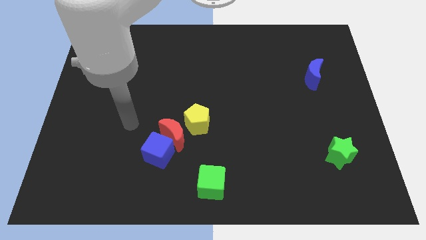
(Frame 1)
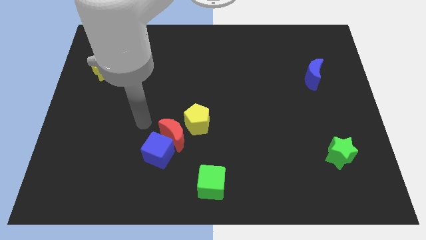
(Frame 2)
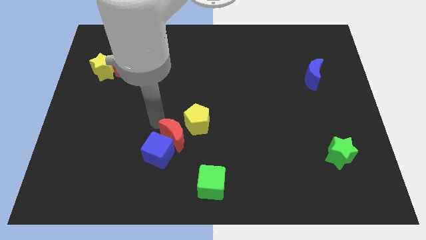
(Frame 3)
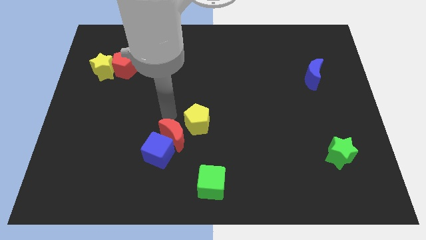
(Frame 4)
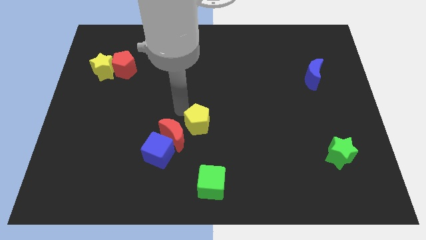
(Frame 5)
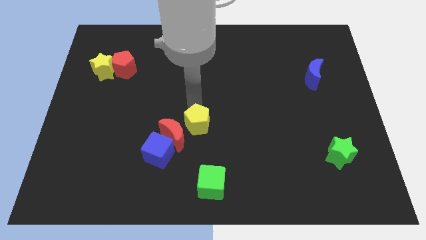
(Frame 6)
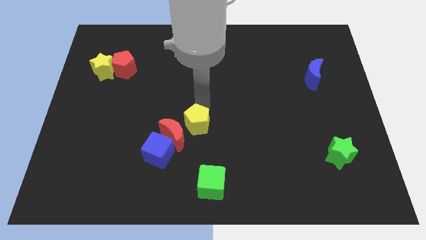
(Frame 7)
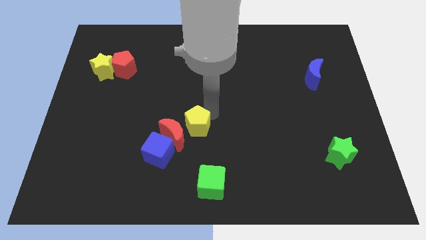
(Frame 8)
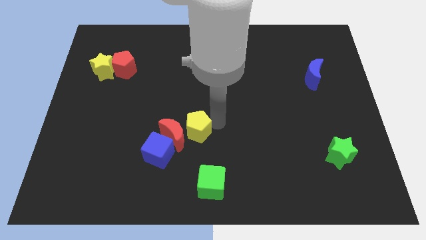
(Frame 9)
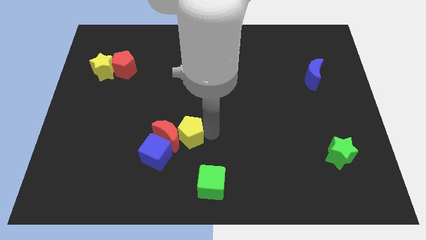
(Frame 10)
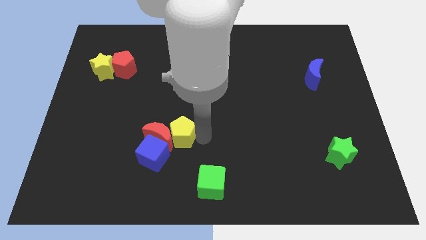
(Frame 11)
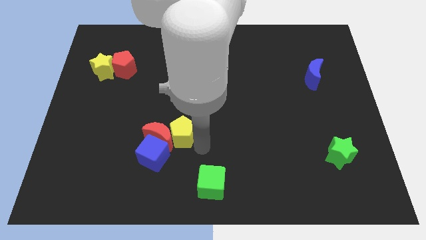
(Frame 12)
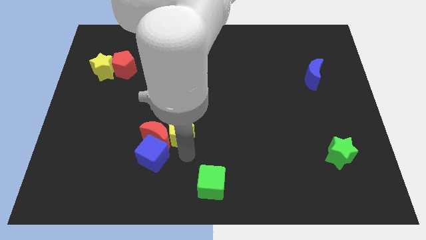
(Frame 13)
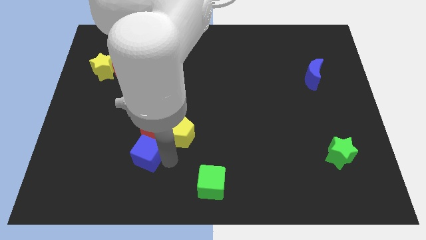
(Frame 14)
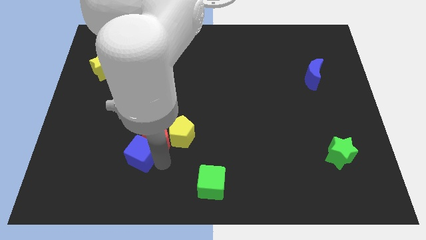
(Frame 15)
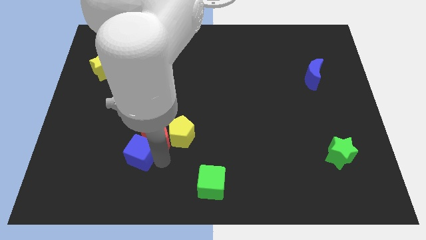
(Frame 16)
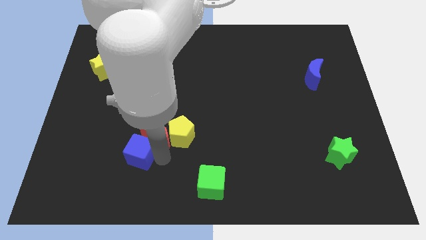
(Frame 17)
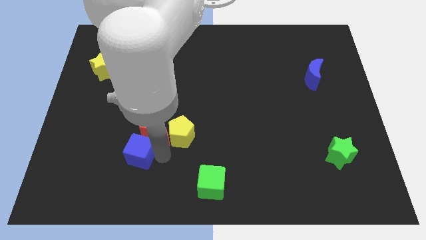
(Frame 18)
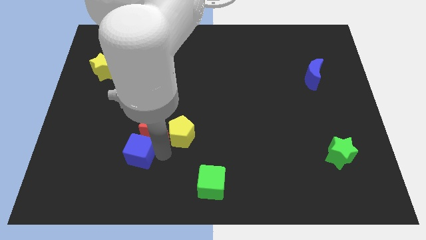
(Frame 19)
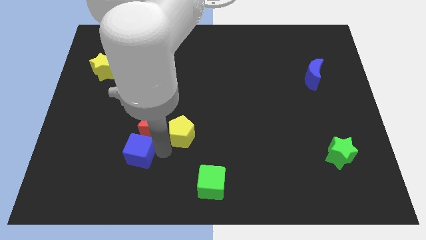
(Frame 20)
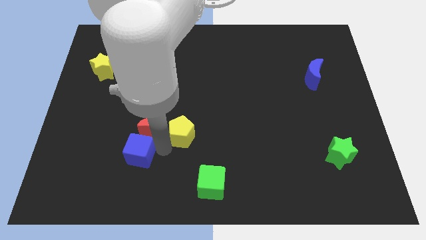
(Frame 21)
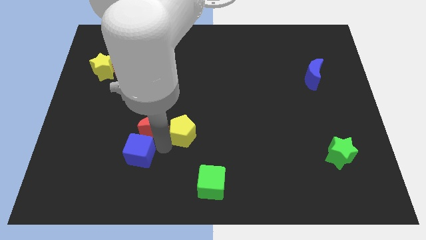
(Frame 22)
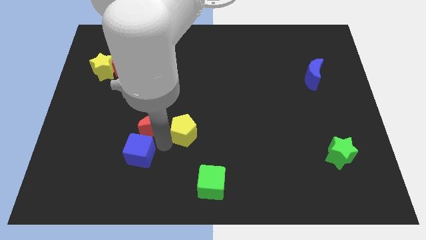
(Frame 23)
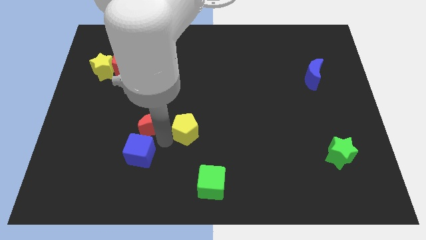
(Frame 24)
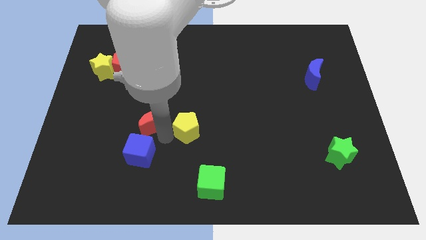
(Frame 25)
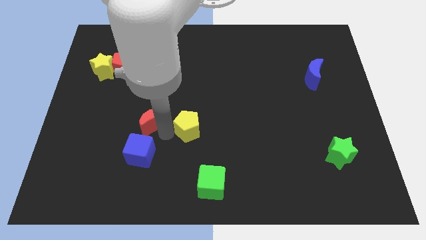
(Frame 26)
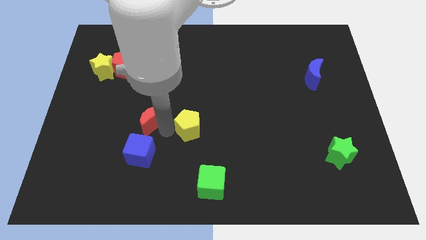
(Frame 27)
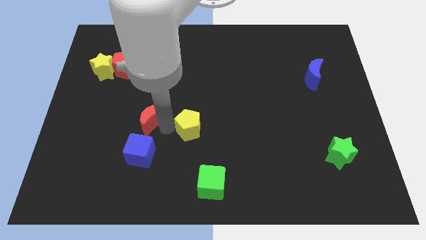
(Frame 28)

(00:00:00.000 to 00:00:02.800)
slightly push the red moon upwards and left diagonally

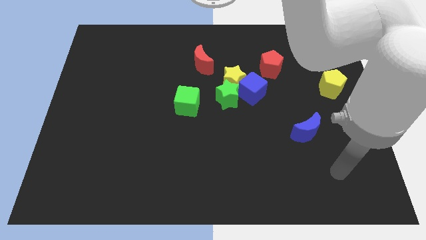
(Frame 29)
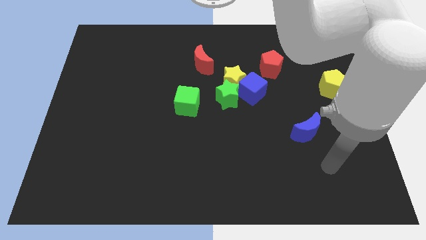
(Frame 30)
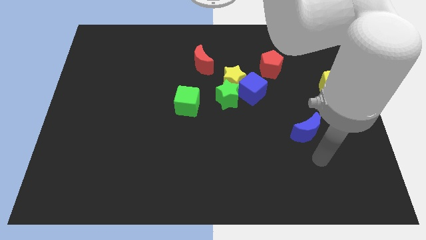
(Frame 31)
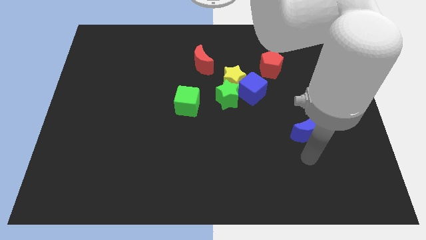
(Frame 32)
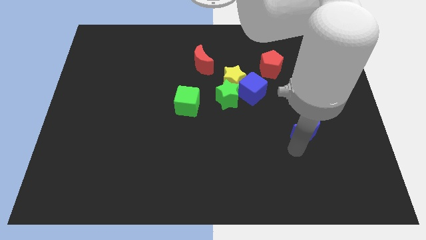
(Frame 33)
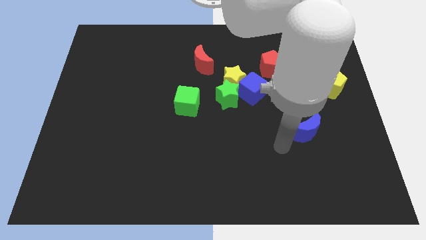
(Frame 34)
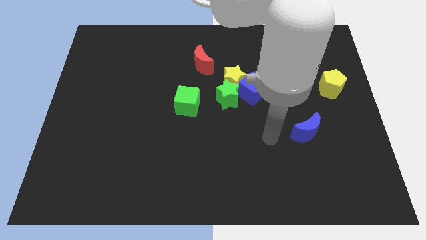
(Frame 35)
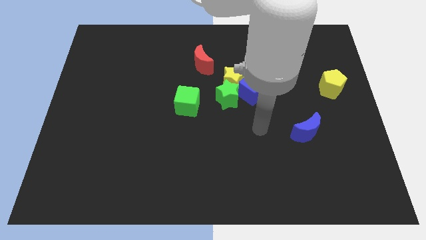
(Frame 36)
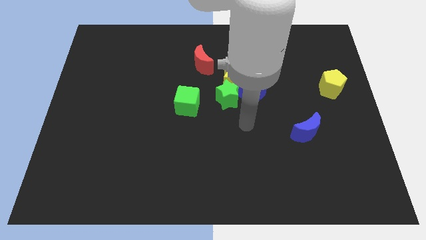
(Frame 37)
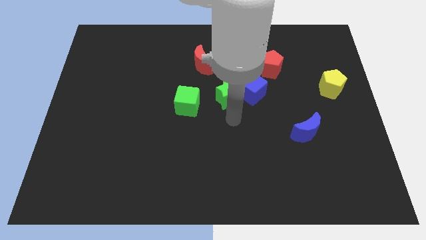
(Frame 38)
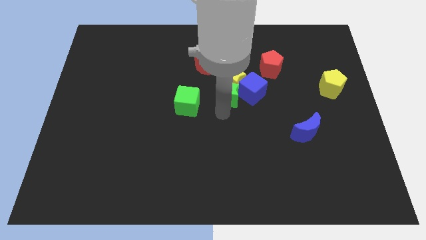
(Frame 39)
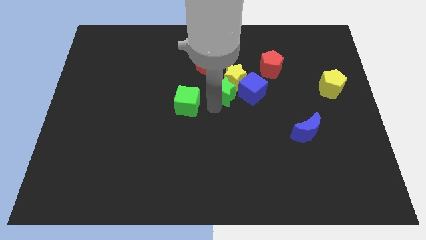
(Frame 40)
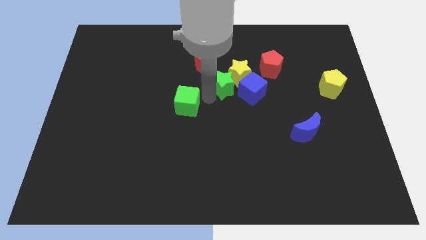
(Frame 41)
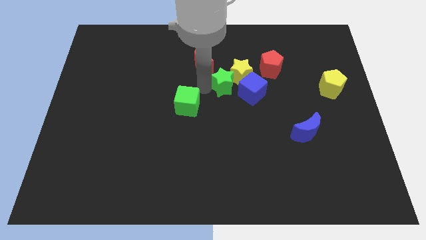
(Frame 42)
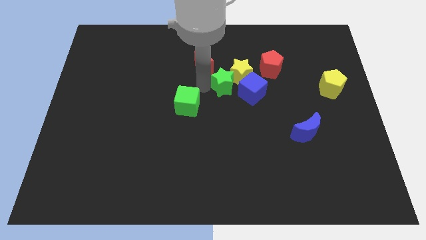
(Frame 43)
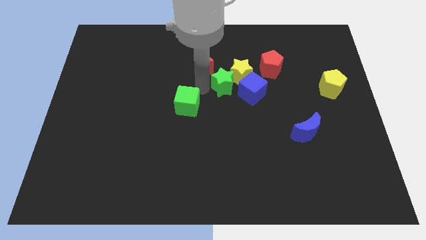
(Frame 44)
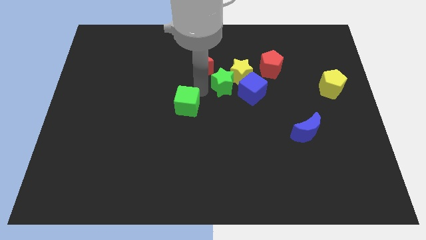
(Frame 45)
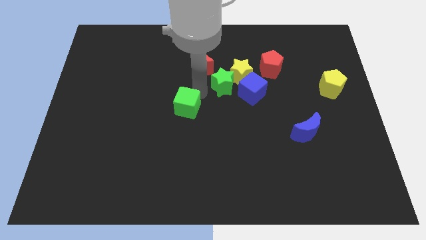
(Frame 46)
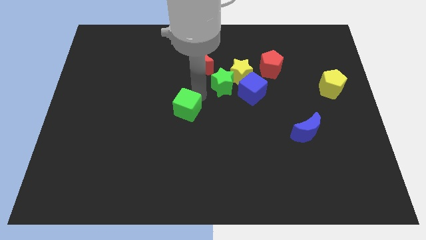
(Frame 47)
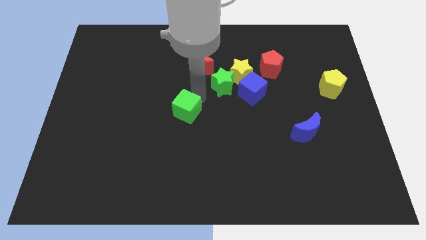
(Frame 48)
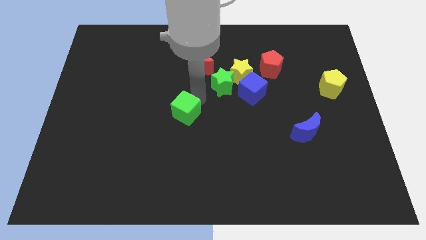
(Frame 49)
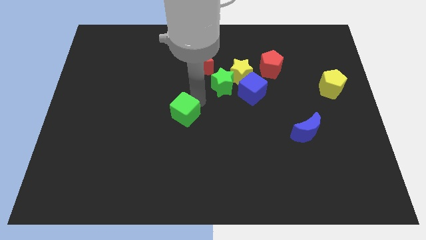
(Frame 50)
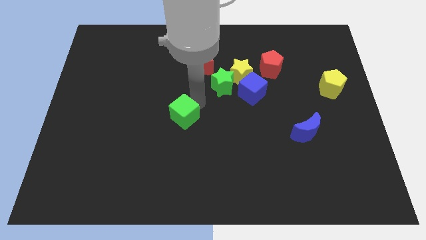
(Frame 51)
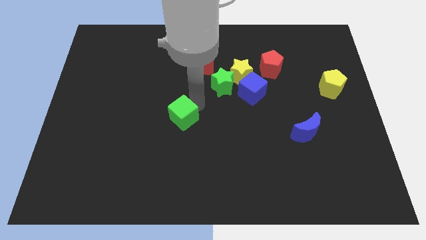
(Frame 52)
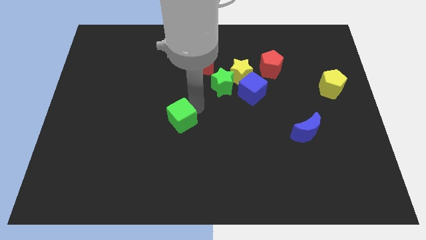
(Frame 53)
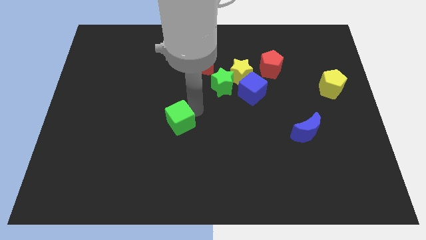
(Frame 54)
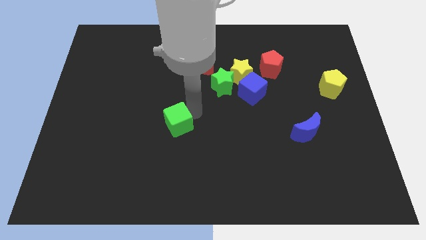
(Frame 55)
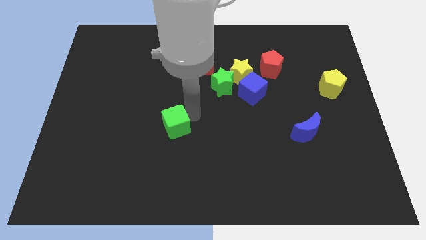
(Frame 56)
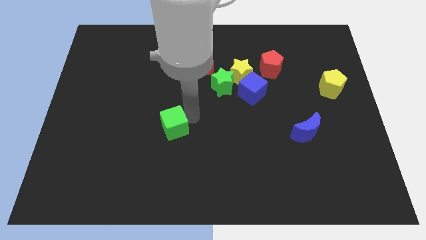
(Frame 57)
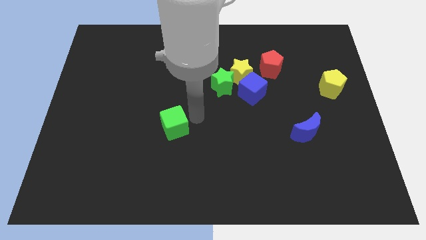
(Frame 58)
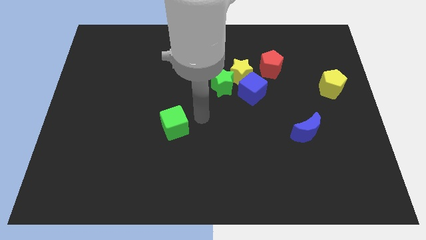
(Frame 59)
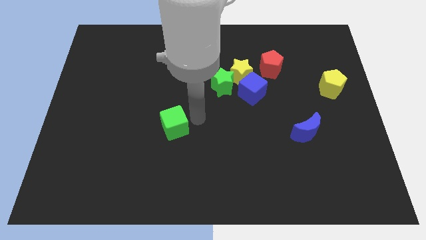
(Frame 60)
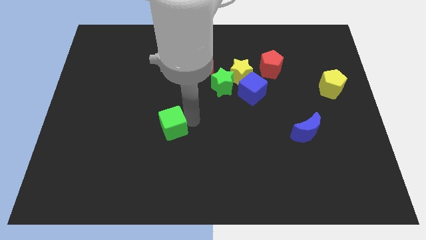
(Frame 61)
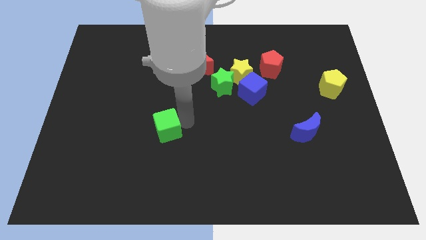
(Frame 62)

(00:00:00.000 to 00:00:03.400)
slightly slide the green cube downwards and then to the left

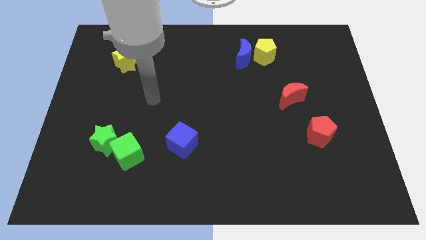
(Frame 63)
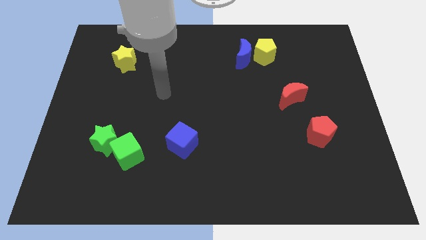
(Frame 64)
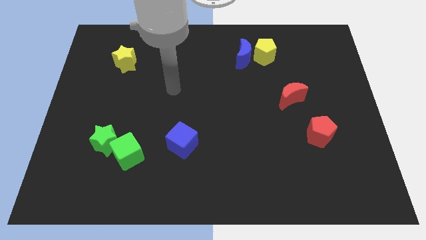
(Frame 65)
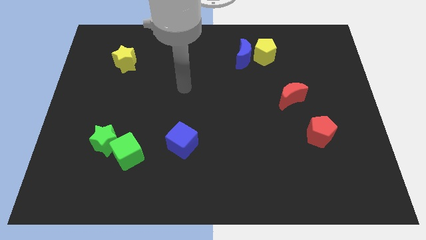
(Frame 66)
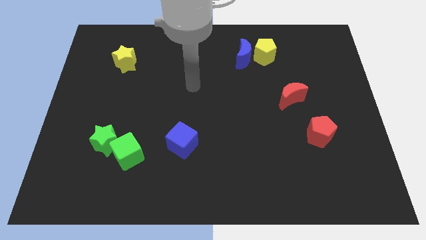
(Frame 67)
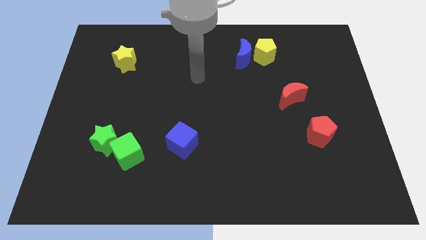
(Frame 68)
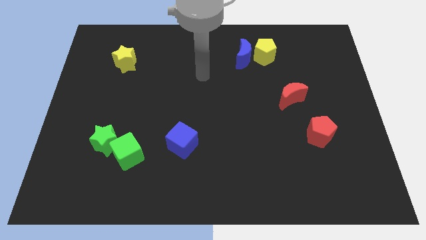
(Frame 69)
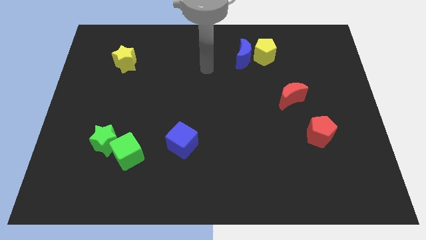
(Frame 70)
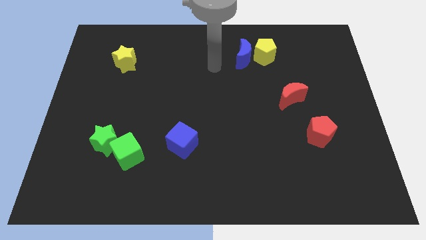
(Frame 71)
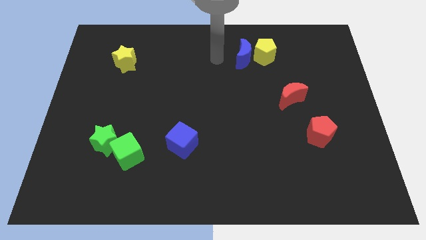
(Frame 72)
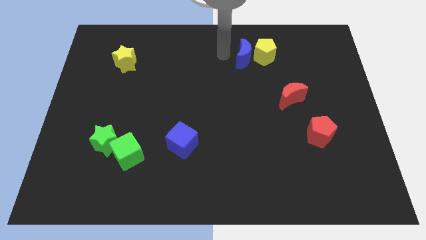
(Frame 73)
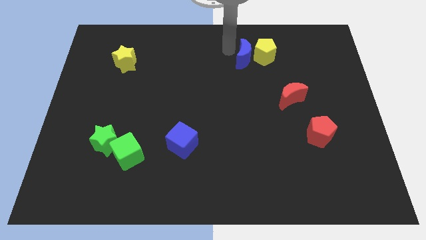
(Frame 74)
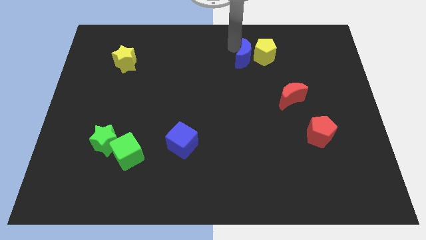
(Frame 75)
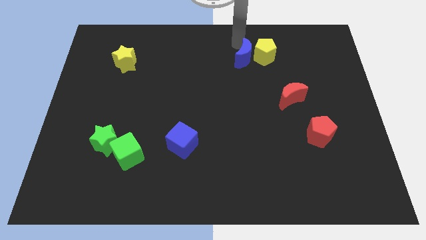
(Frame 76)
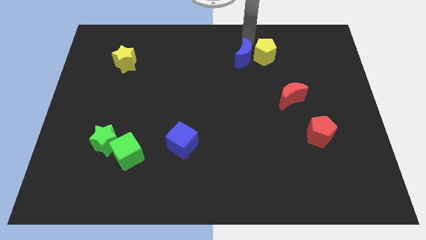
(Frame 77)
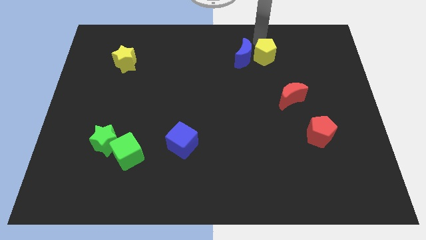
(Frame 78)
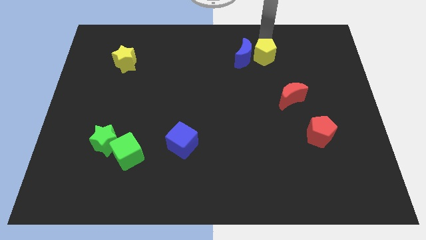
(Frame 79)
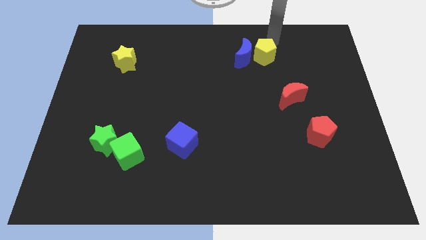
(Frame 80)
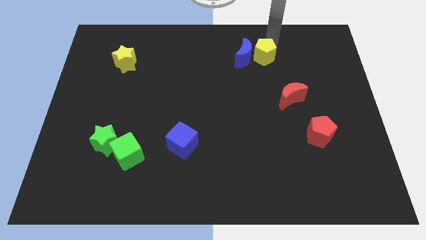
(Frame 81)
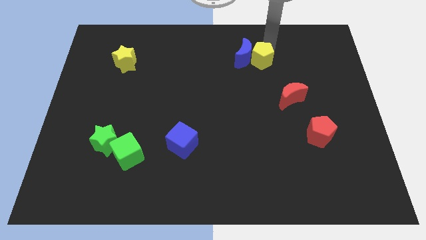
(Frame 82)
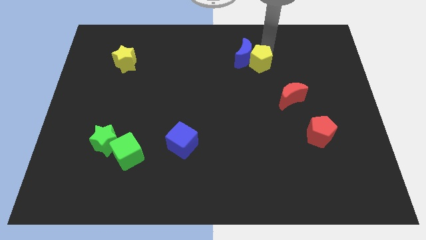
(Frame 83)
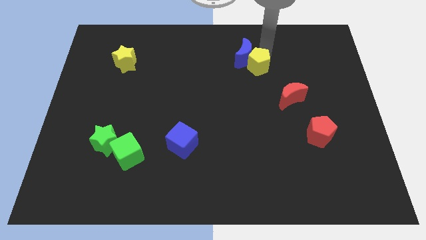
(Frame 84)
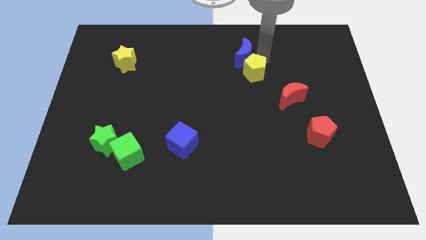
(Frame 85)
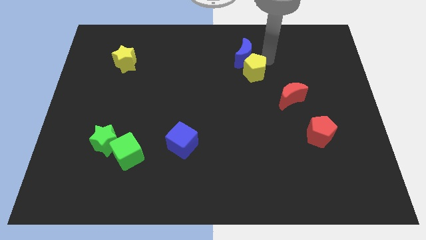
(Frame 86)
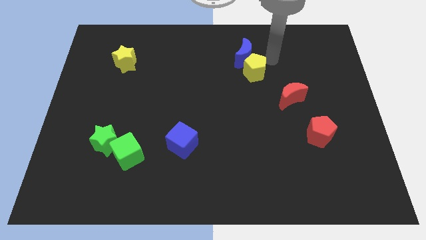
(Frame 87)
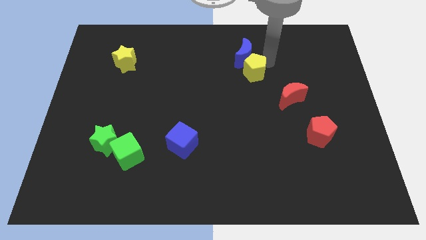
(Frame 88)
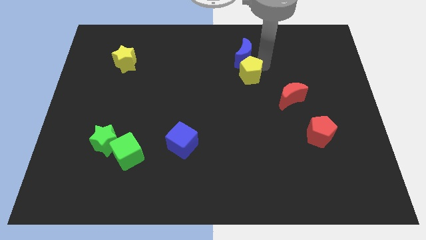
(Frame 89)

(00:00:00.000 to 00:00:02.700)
push the yellow pentagon downwards and then left a little
